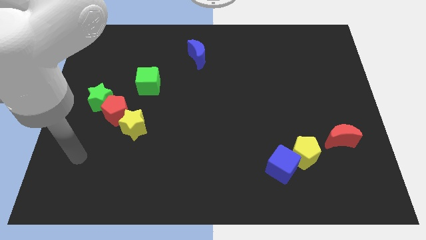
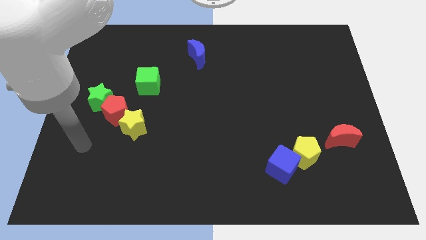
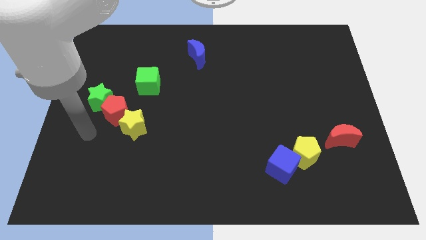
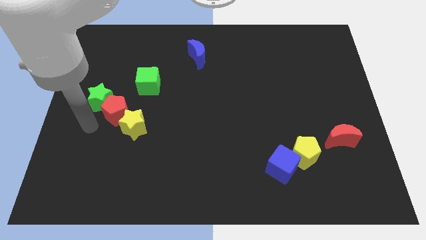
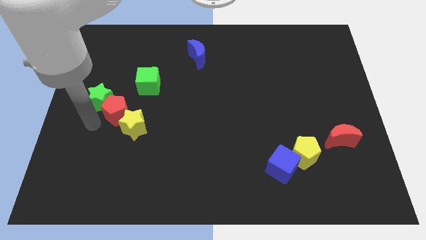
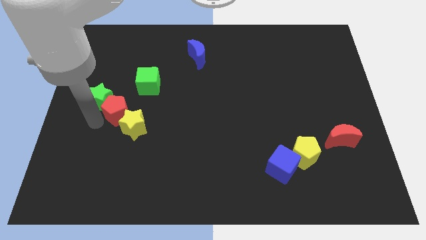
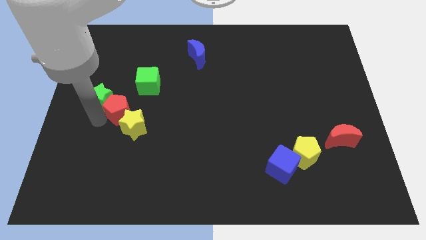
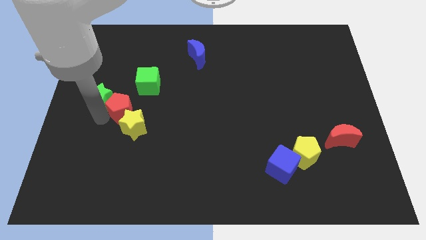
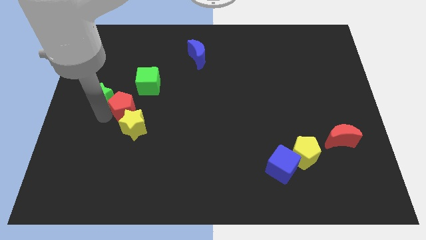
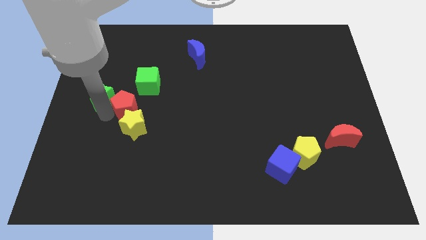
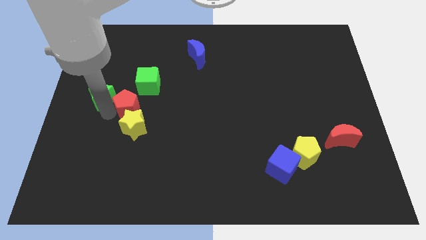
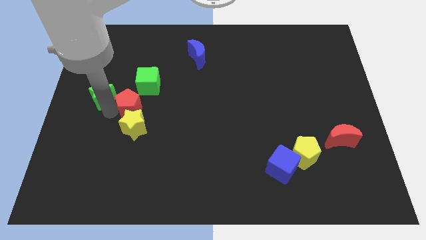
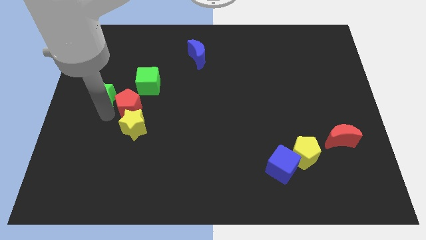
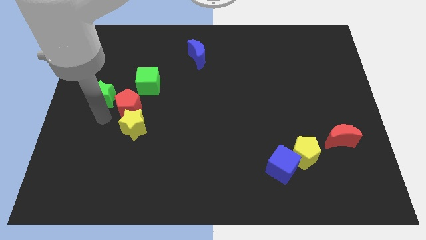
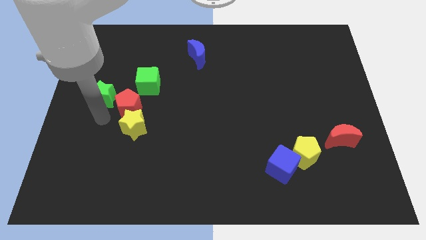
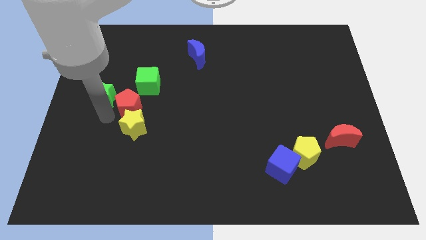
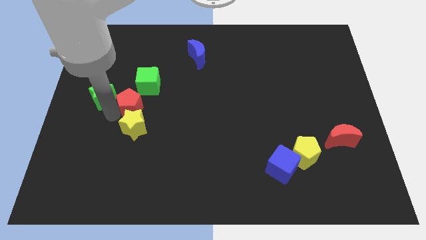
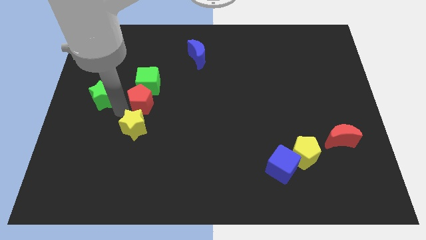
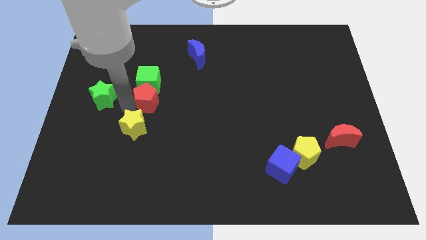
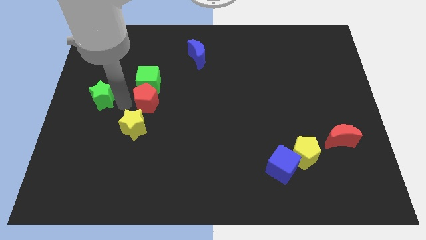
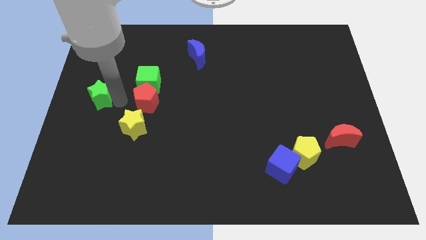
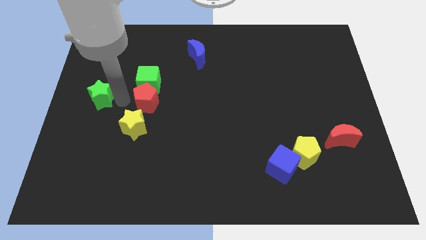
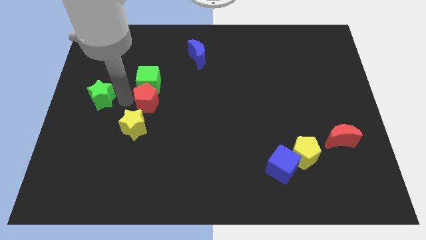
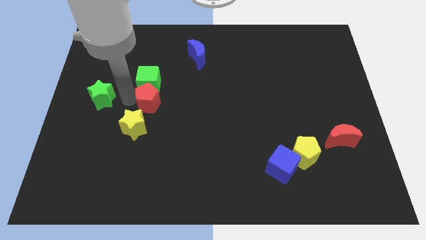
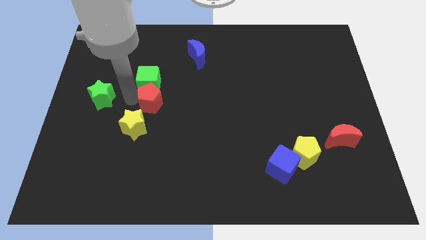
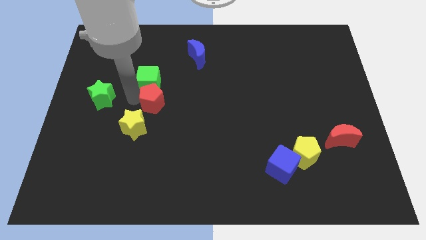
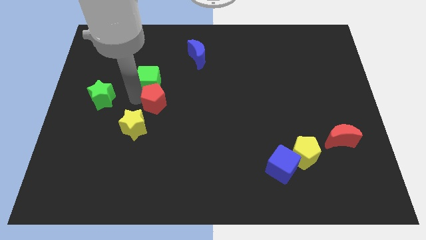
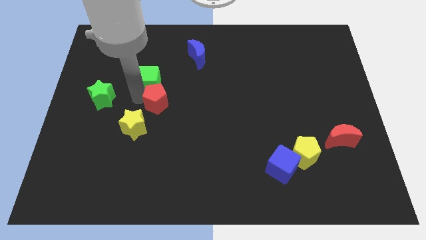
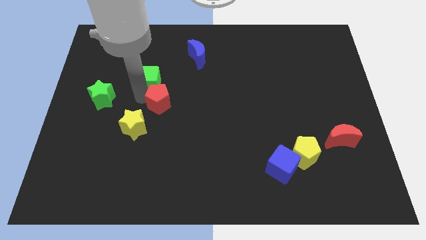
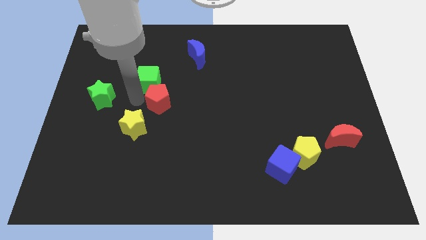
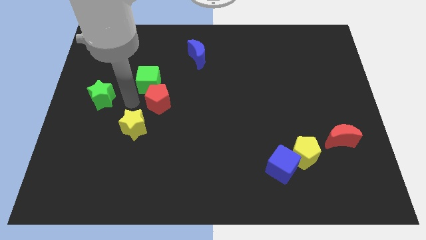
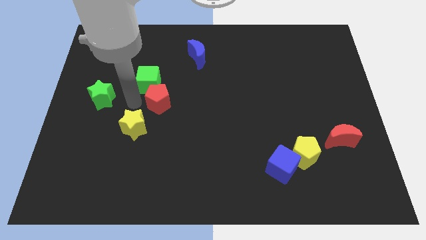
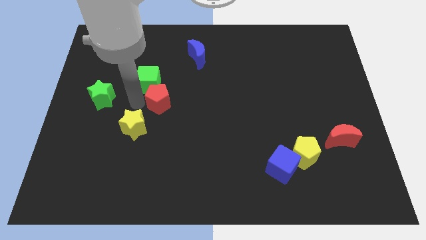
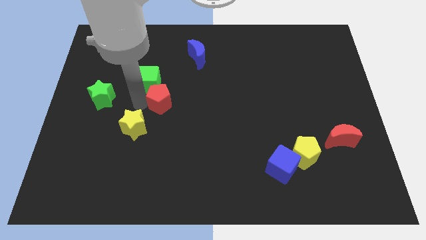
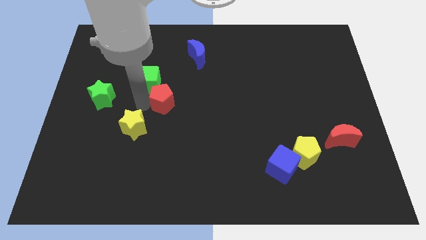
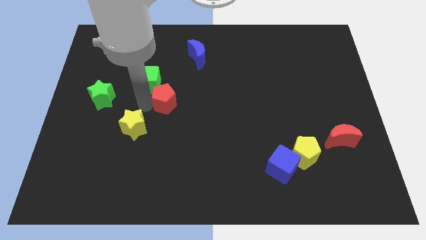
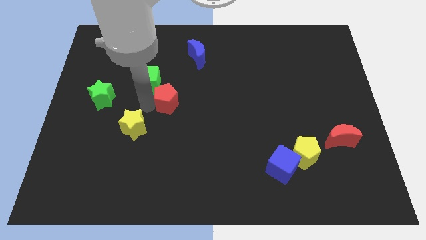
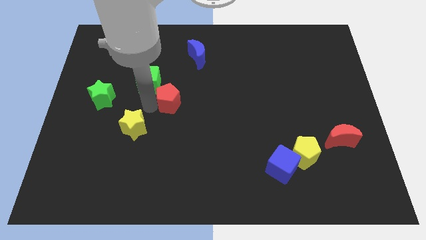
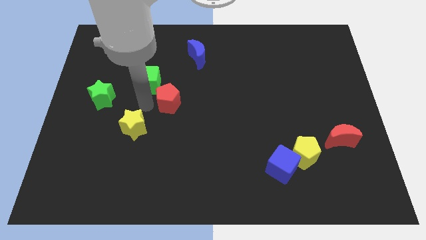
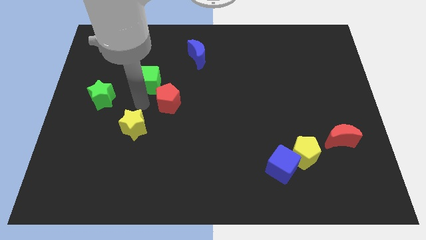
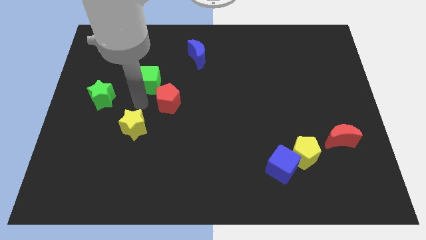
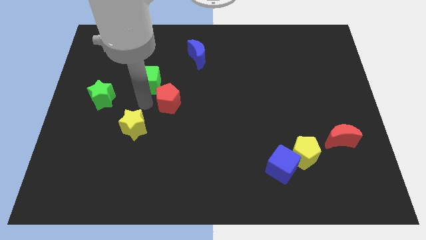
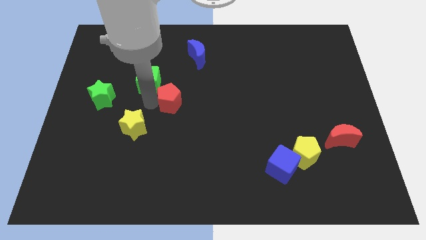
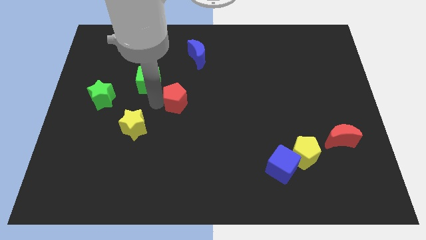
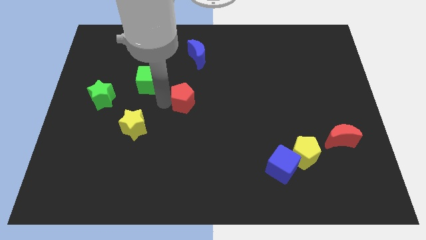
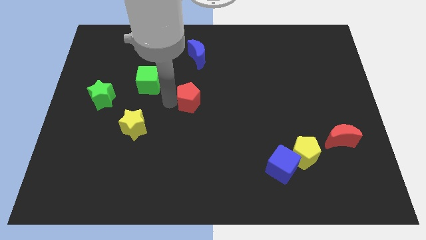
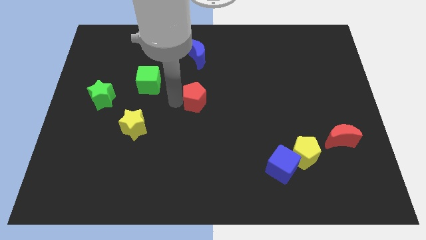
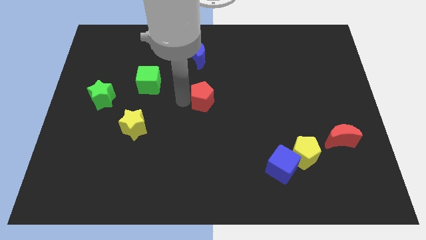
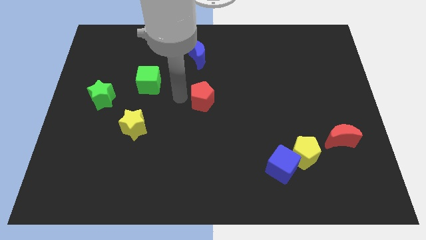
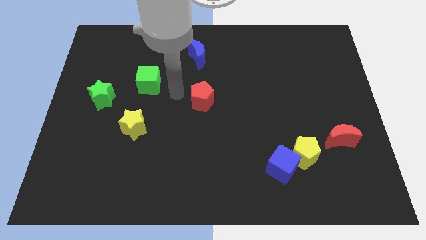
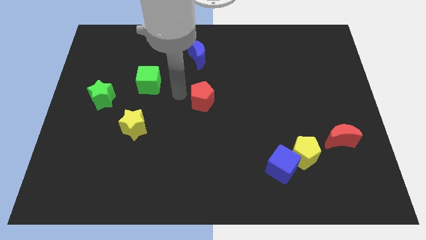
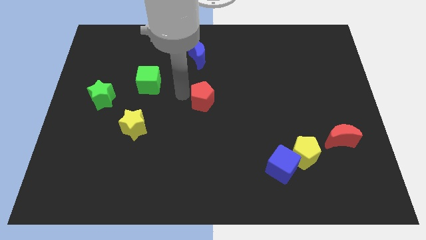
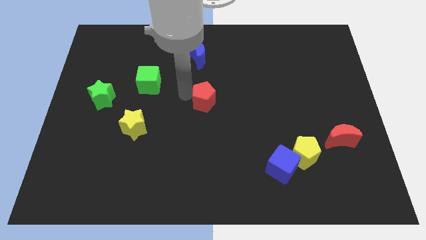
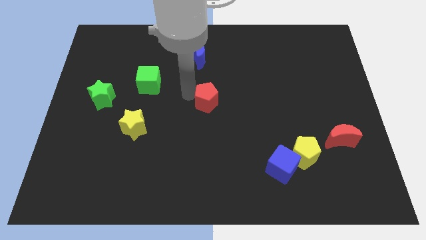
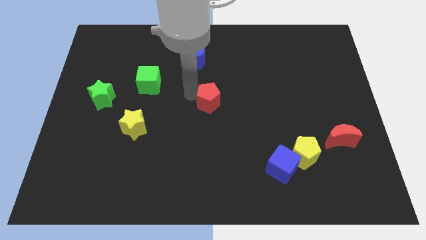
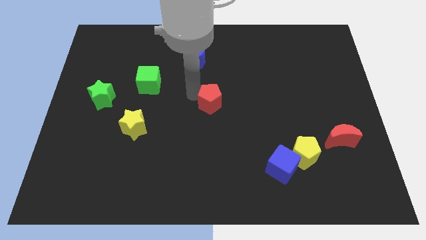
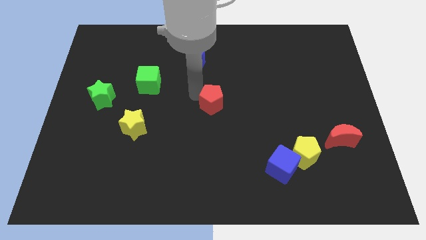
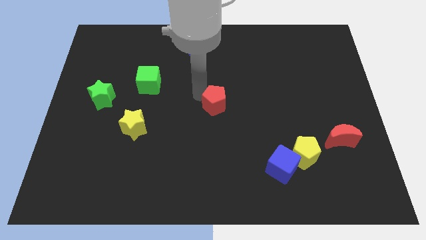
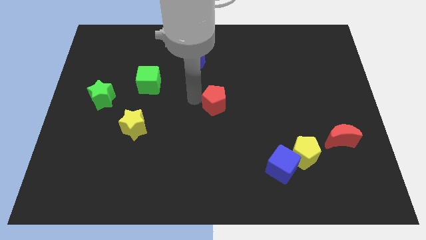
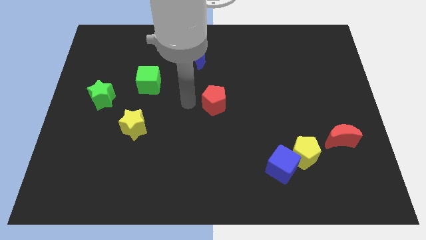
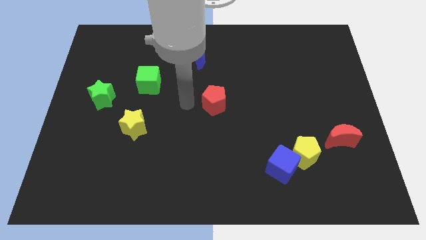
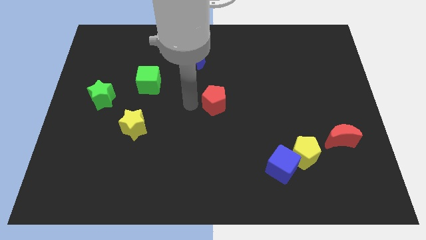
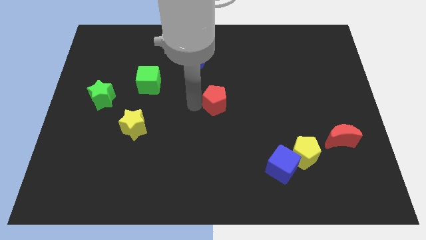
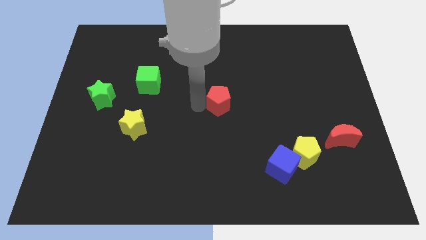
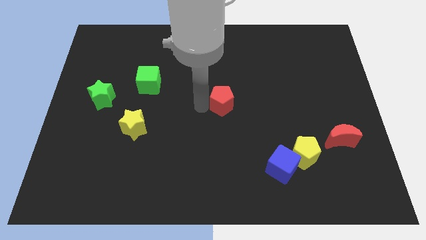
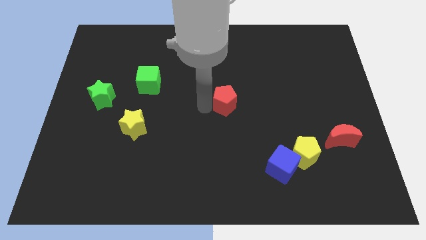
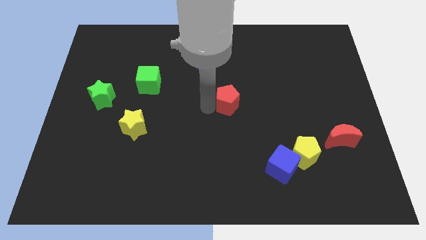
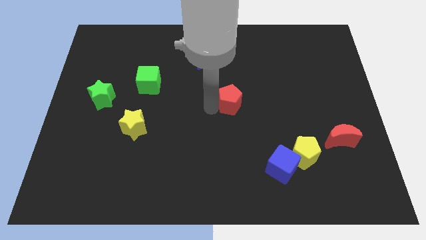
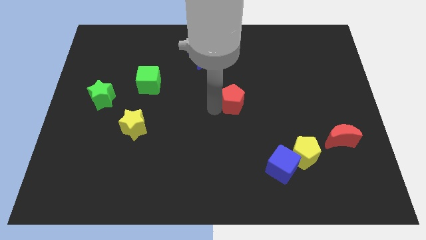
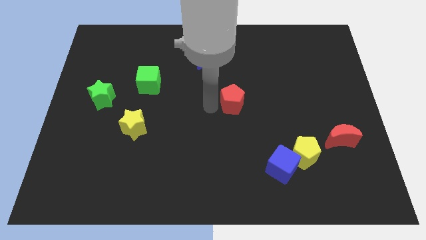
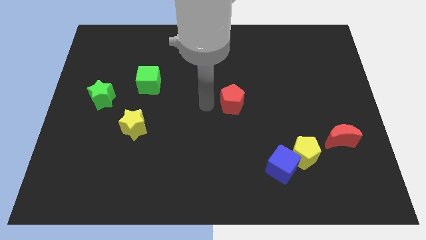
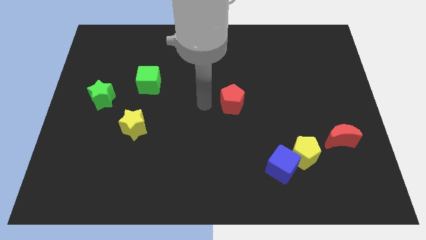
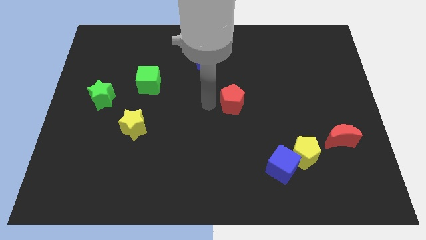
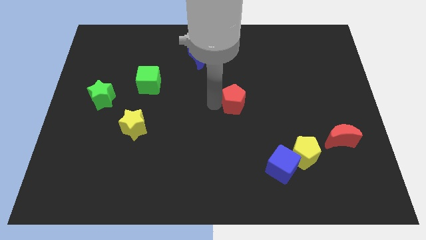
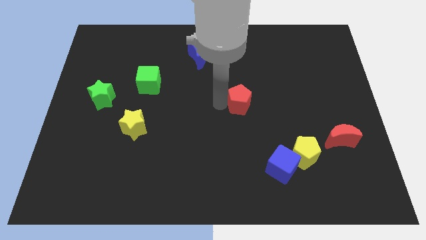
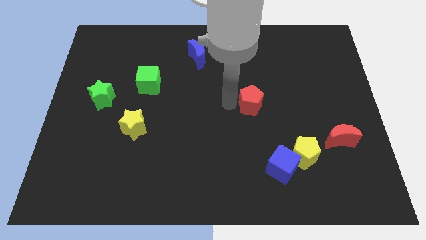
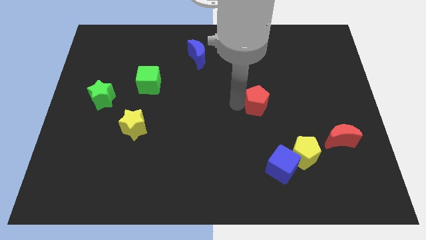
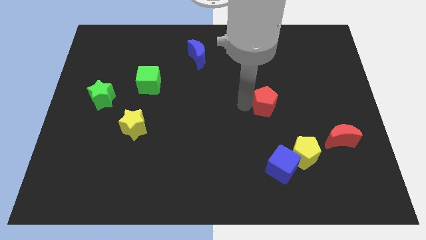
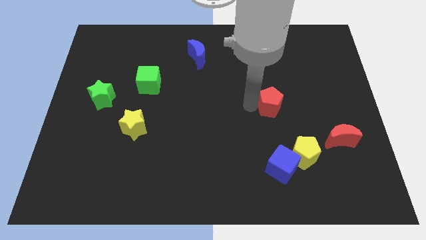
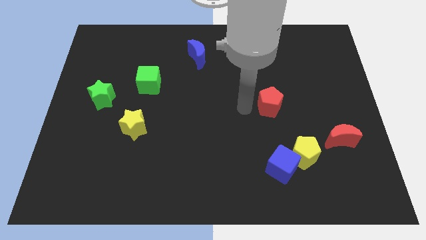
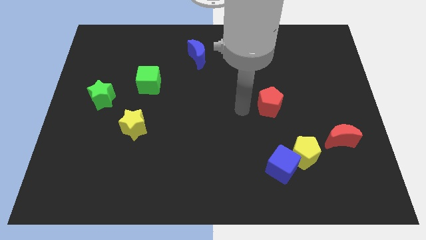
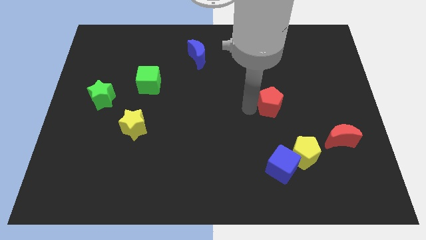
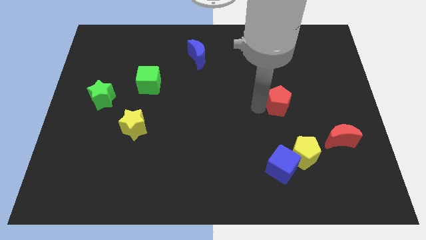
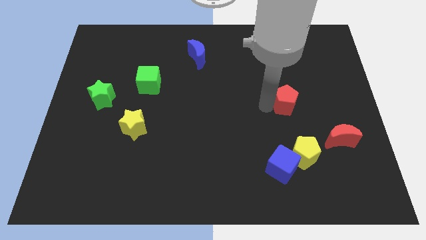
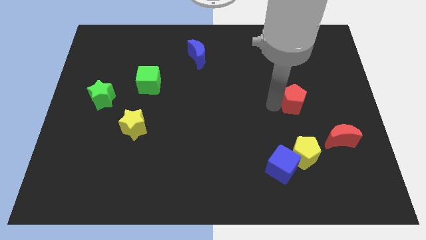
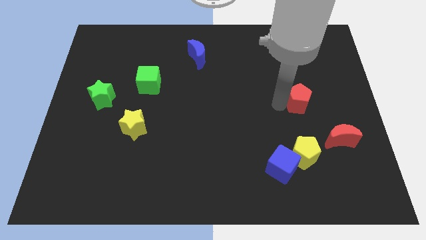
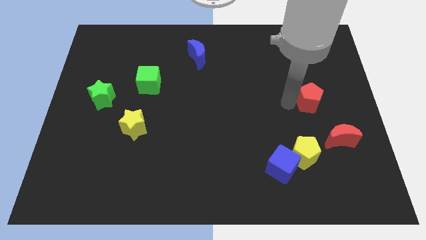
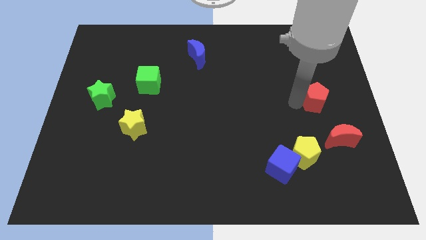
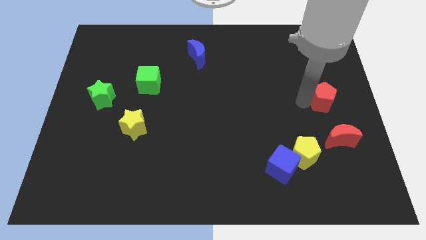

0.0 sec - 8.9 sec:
move the red pentagon to the right side
